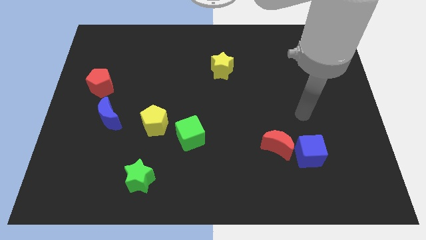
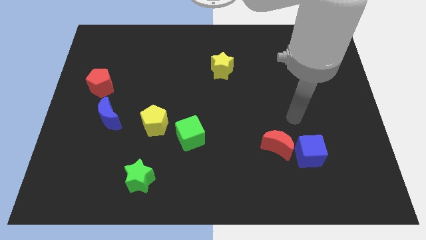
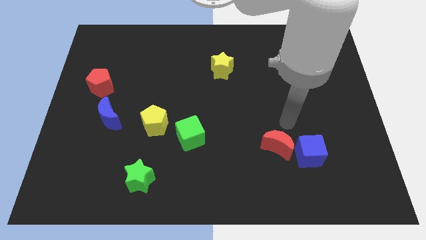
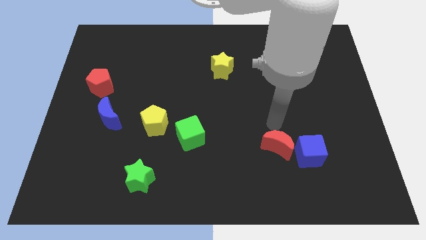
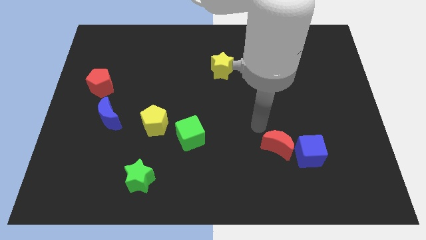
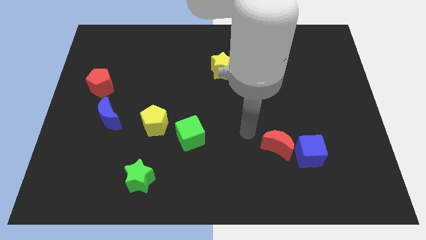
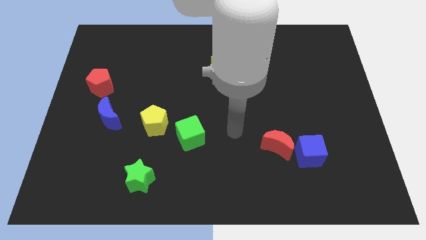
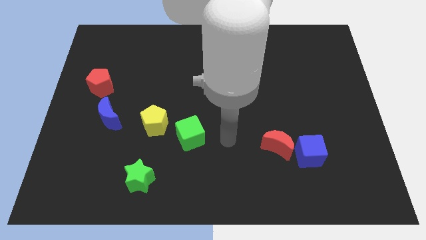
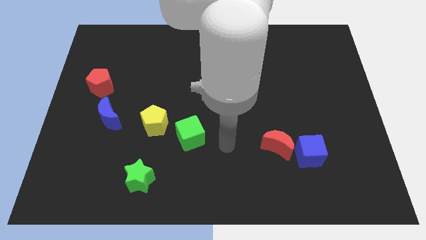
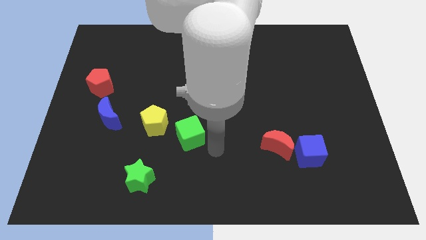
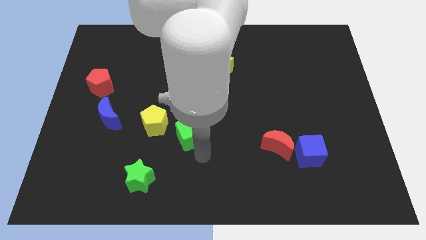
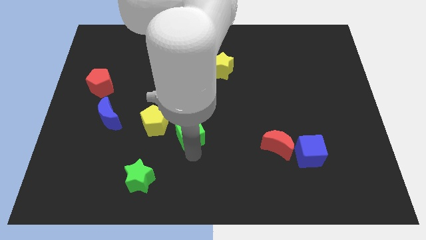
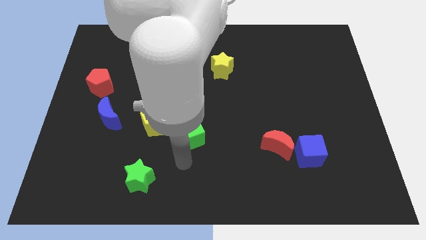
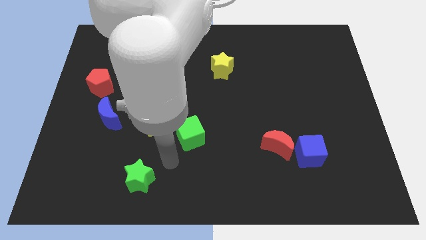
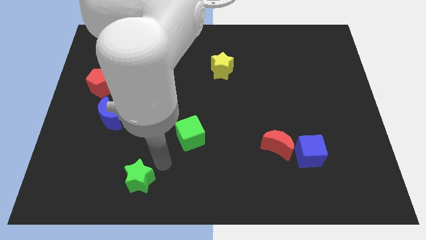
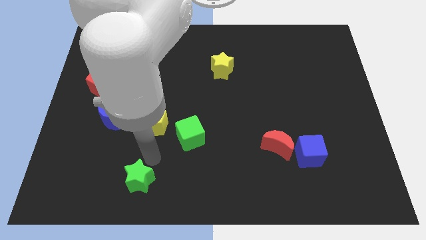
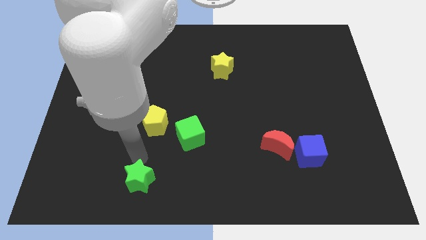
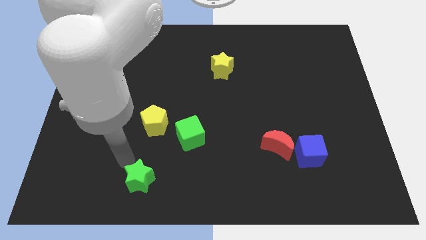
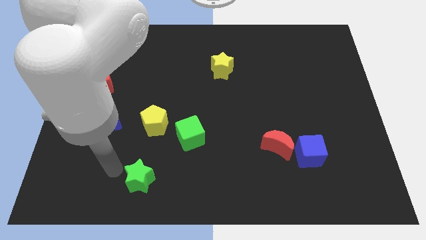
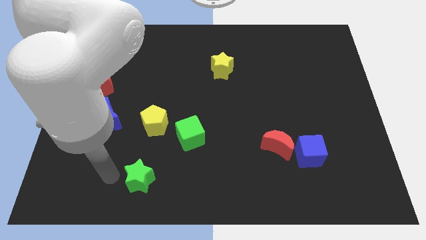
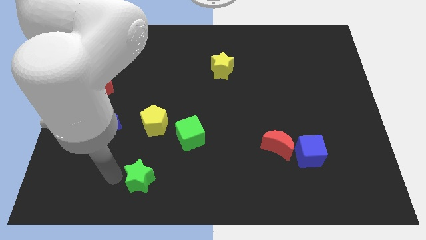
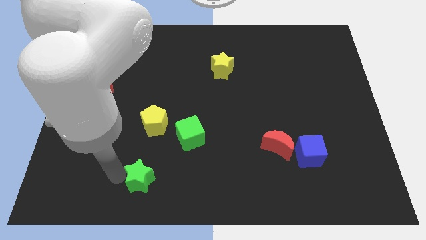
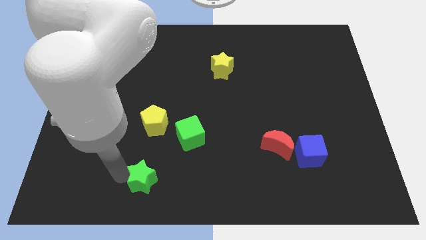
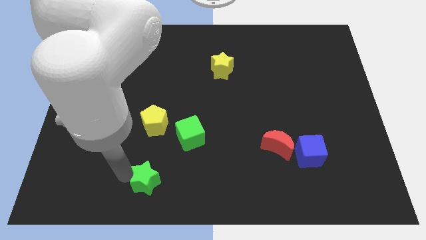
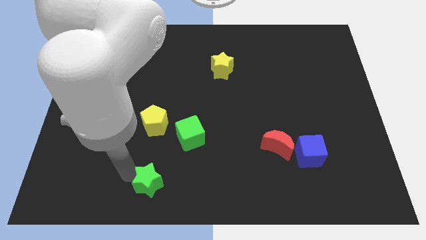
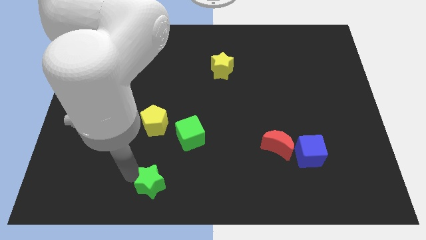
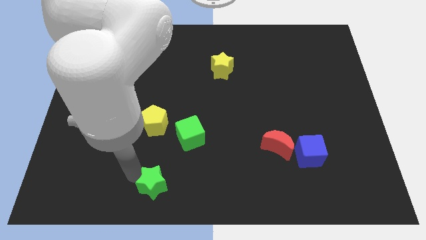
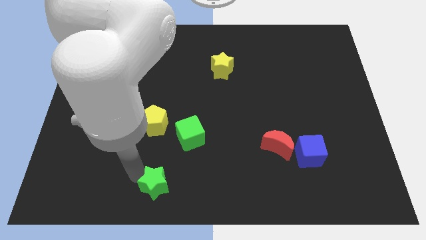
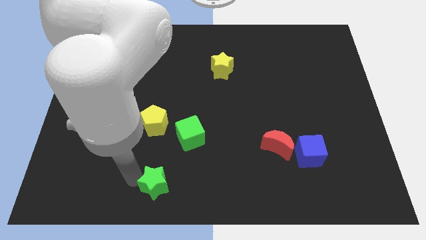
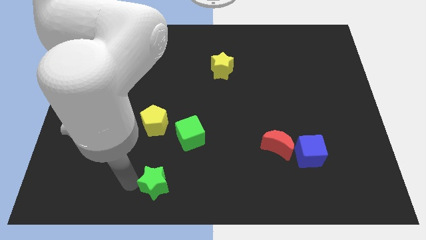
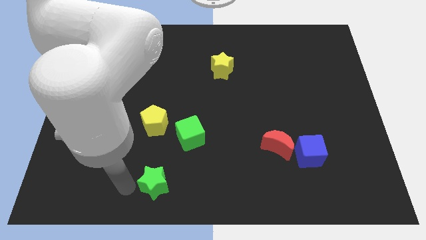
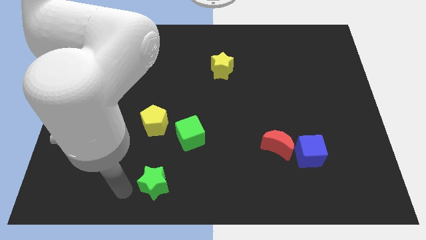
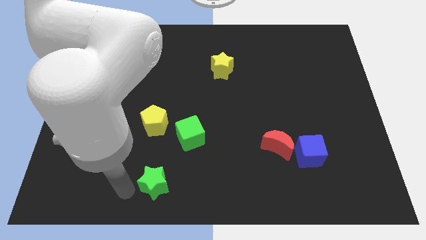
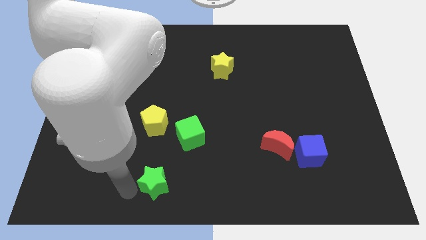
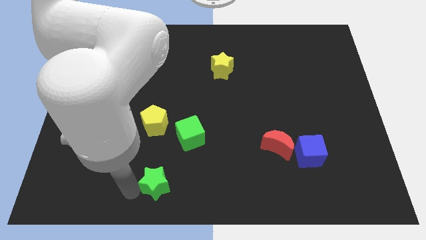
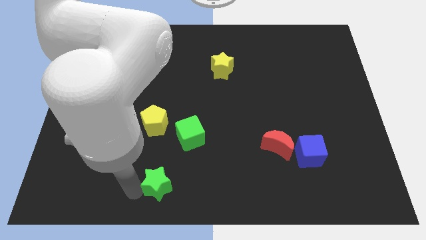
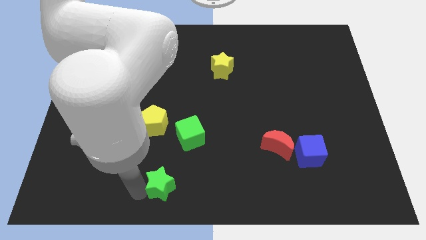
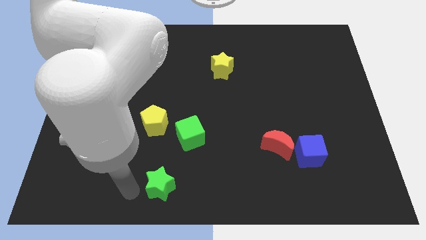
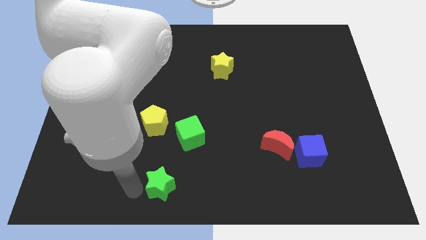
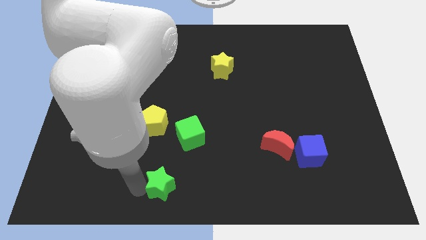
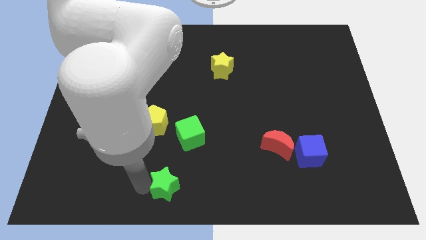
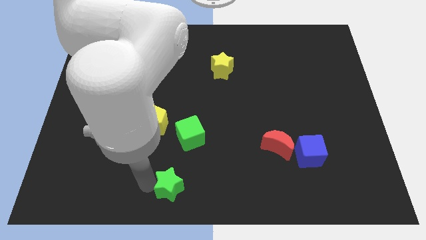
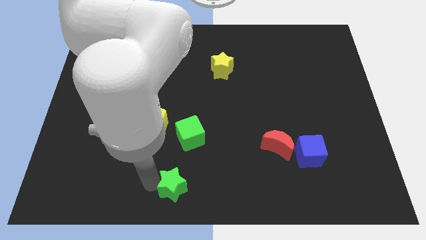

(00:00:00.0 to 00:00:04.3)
push the green star somewhat to the right

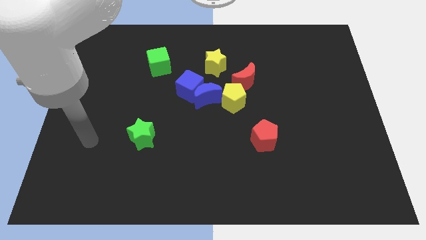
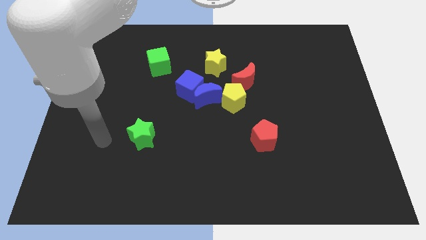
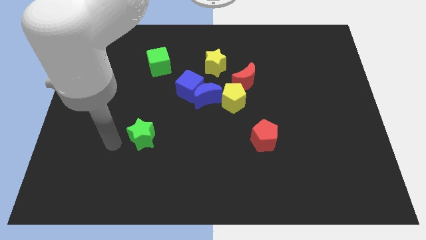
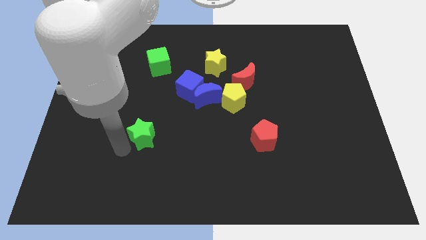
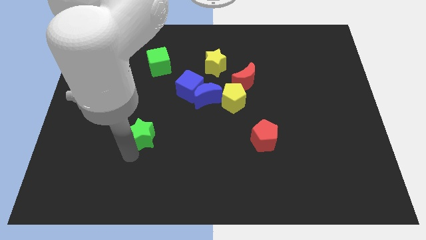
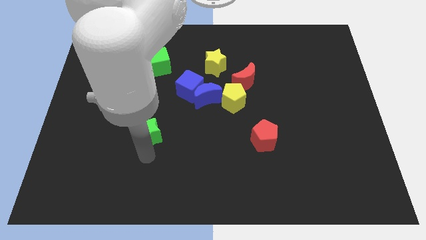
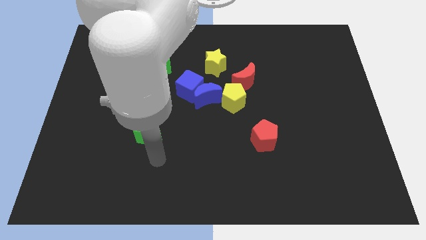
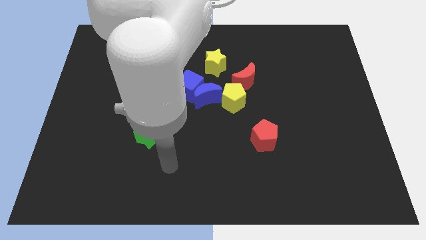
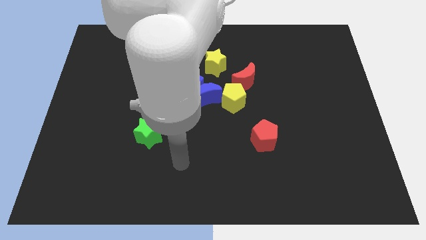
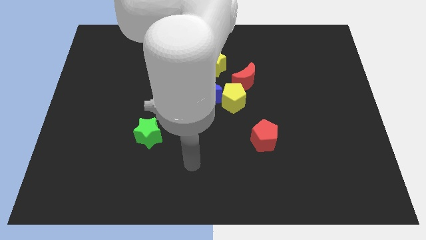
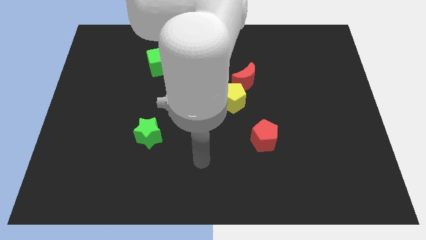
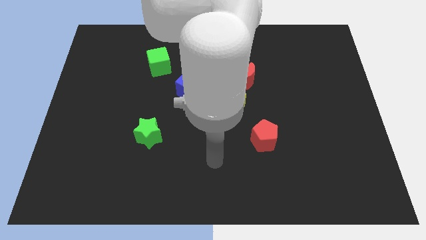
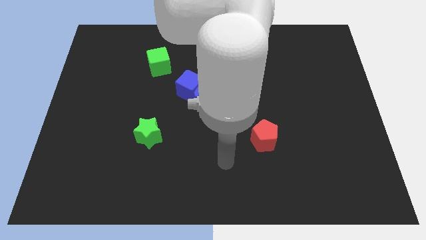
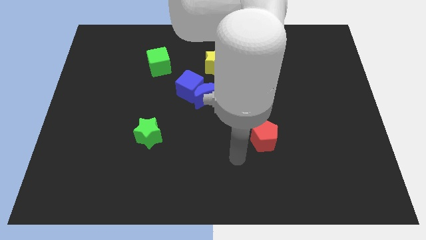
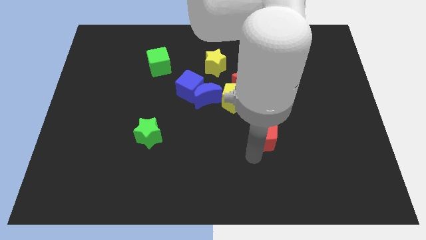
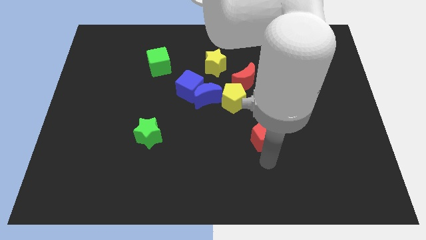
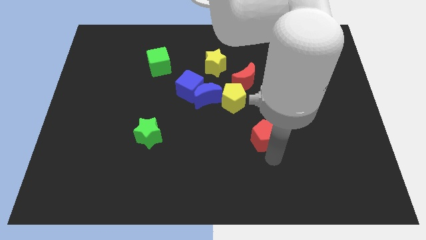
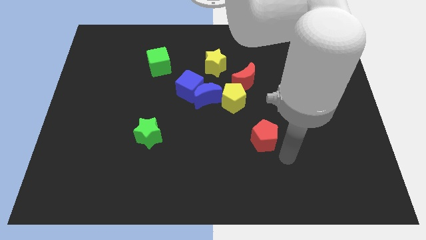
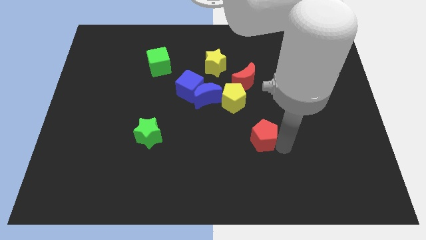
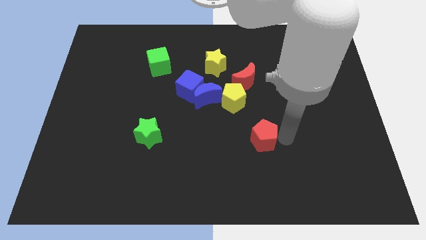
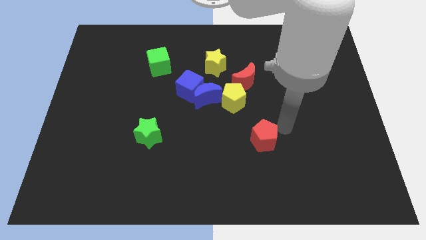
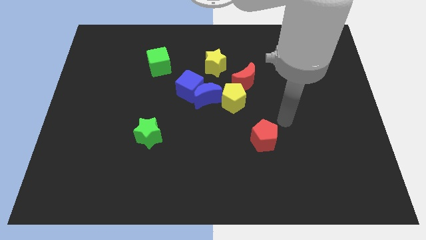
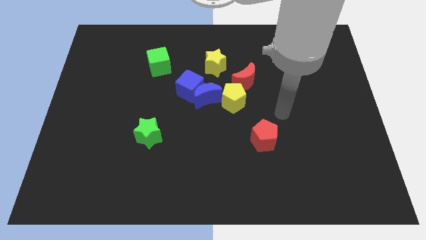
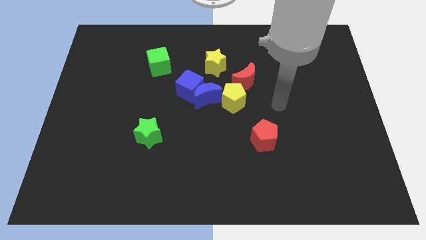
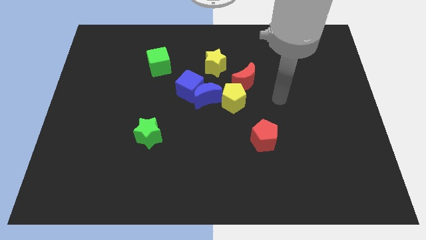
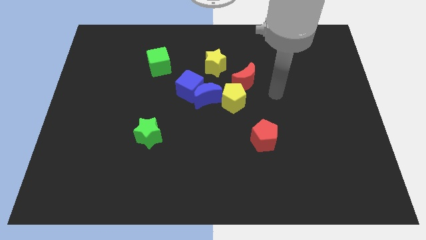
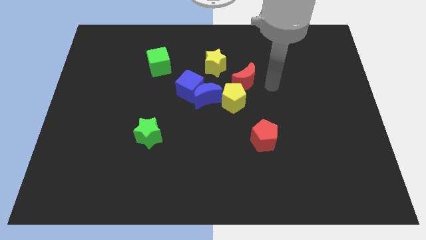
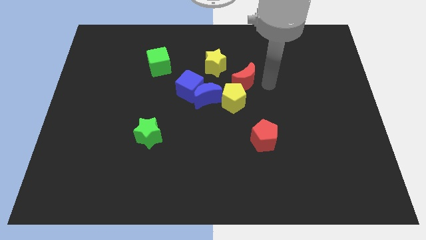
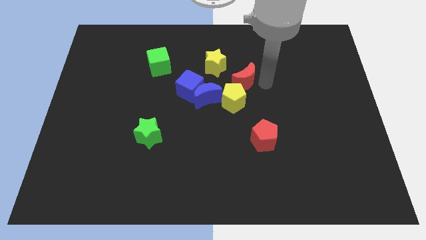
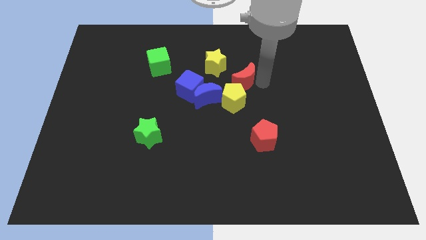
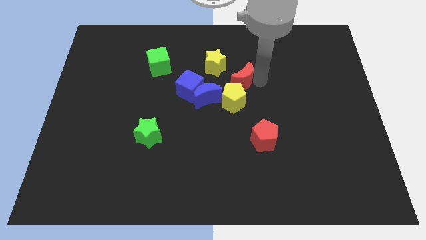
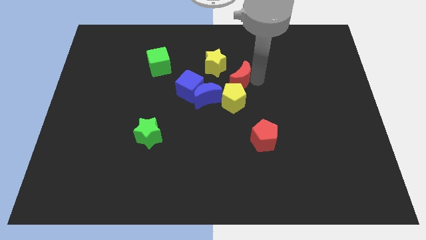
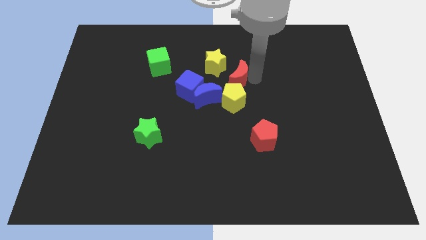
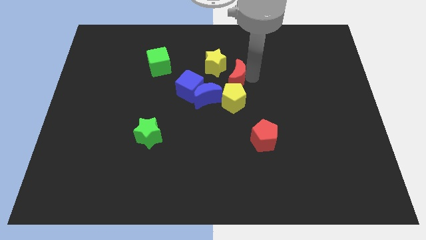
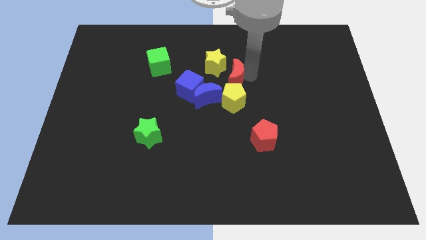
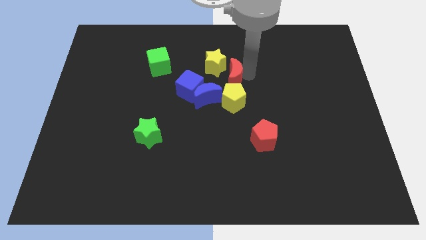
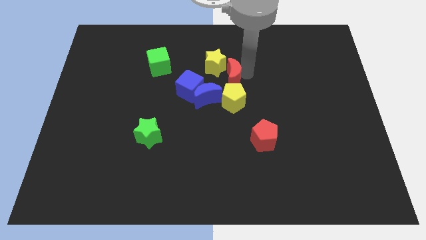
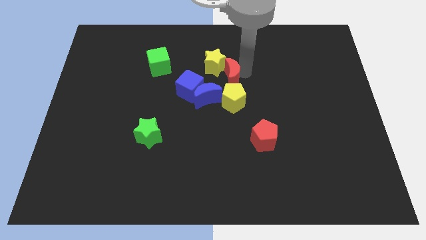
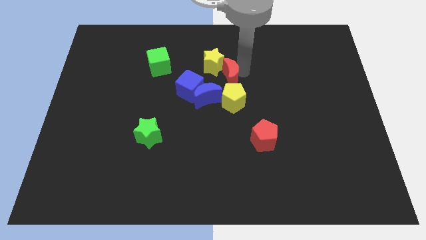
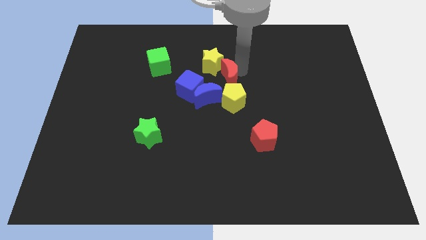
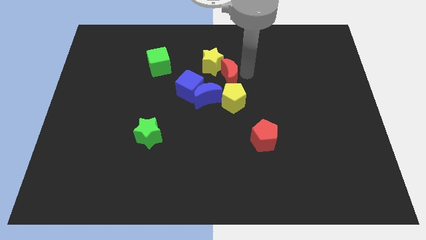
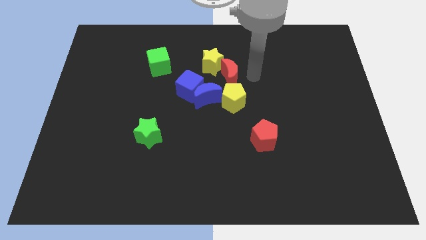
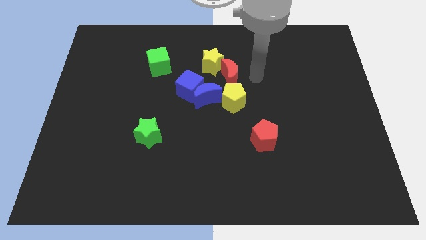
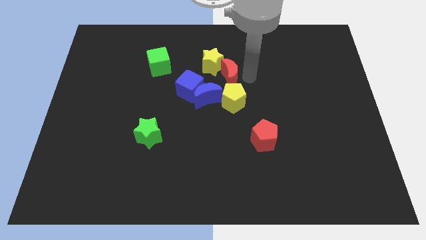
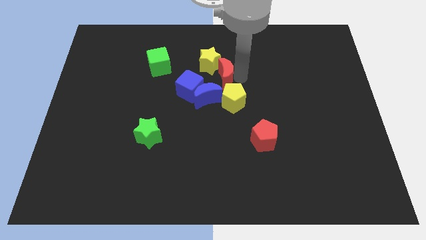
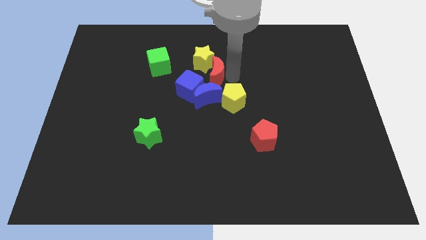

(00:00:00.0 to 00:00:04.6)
push the red moon left a bit
